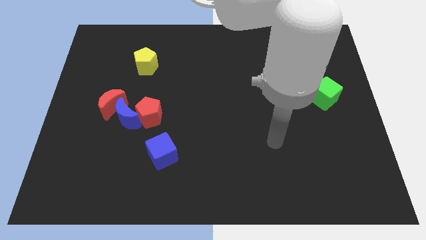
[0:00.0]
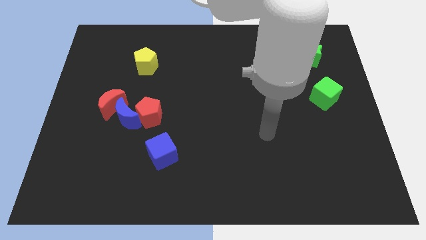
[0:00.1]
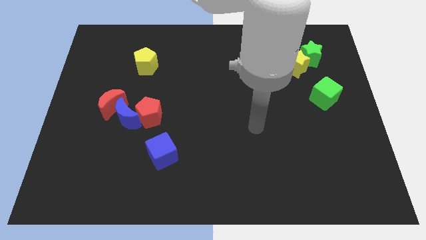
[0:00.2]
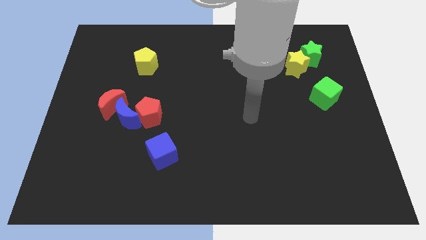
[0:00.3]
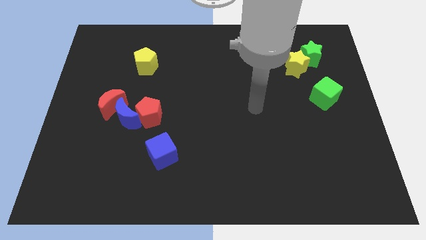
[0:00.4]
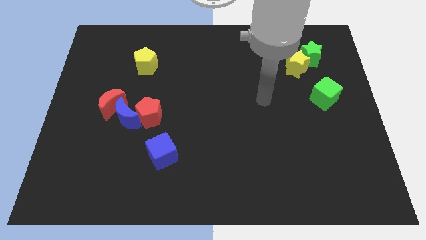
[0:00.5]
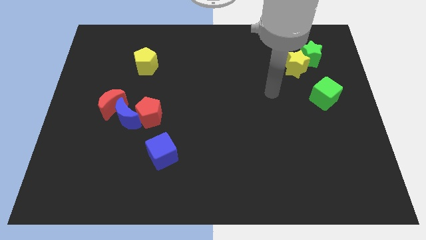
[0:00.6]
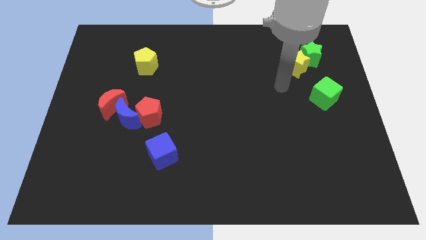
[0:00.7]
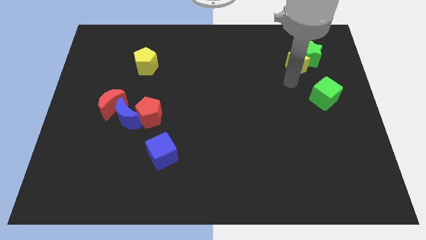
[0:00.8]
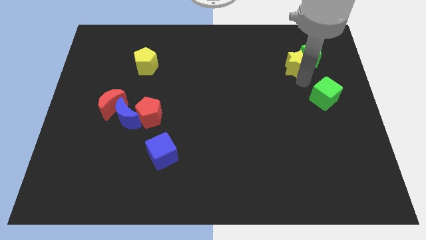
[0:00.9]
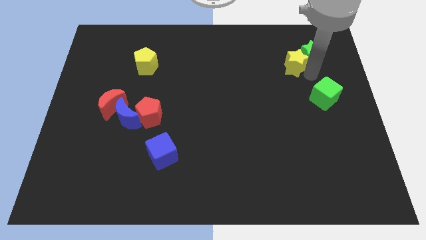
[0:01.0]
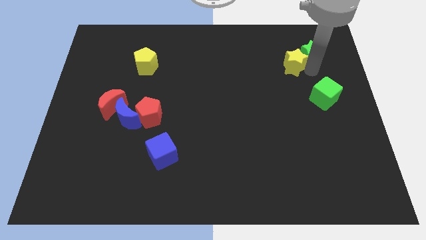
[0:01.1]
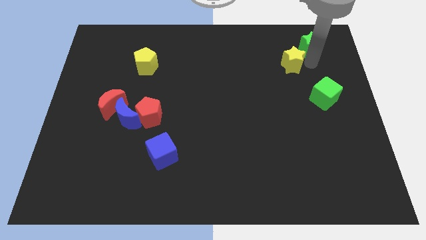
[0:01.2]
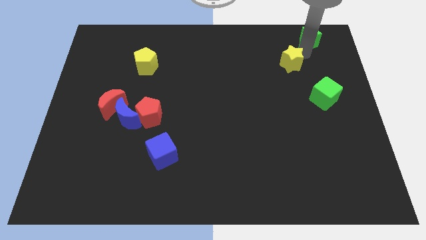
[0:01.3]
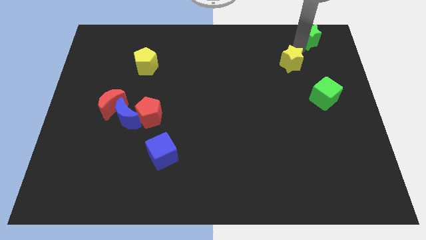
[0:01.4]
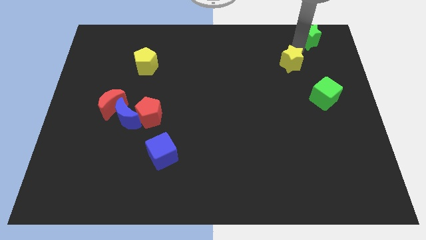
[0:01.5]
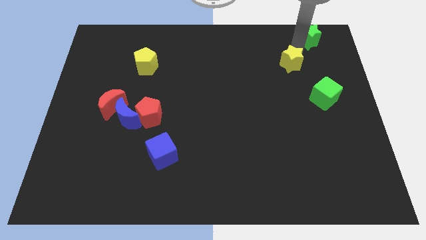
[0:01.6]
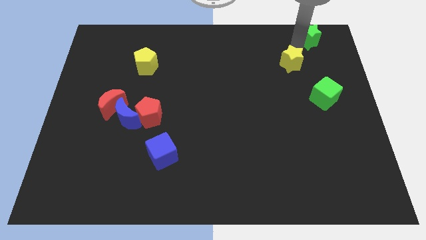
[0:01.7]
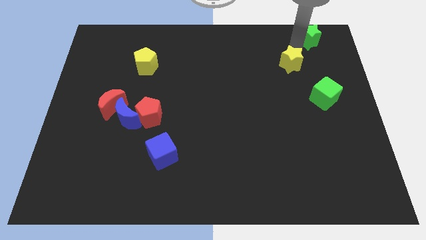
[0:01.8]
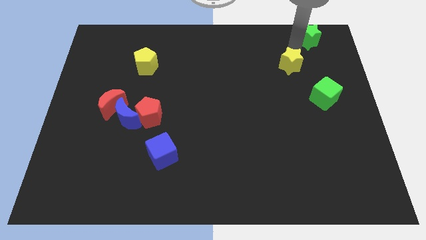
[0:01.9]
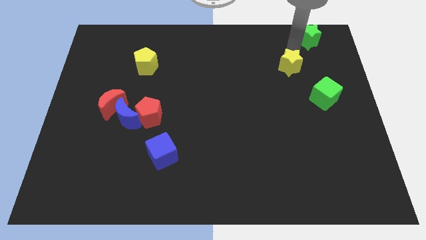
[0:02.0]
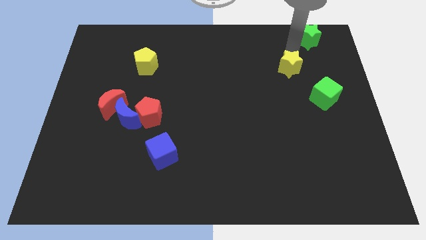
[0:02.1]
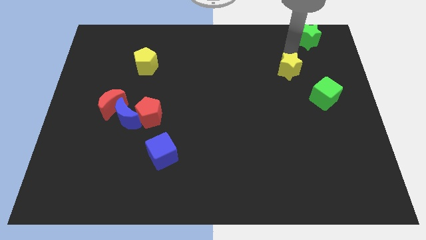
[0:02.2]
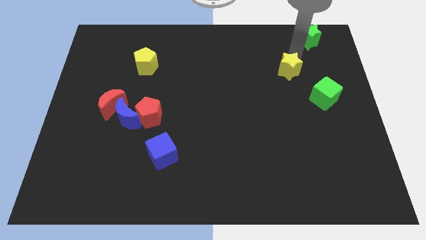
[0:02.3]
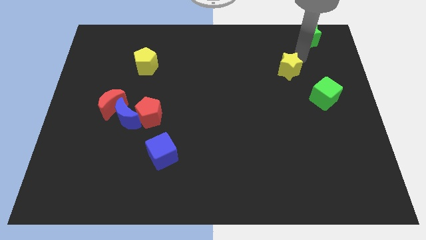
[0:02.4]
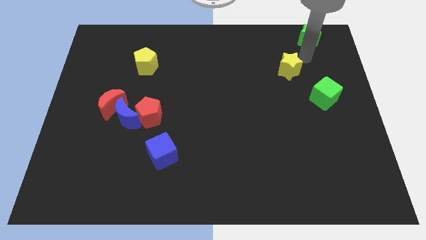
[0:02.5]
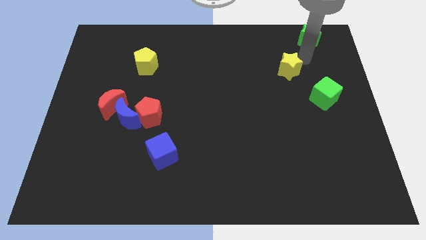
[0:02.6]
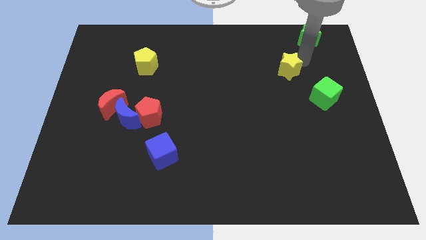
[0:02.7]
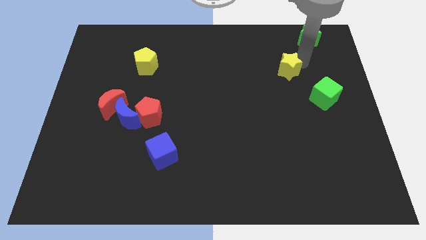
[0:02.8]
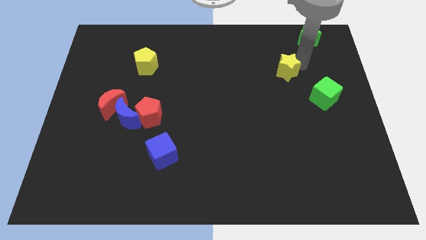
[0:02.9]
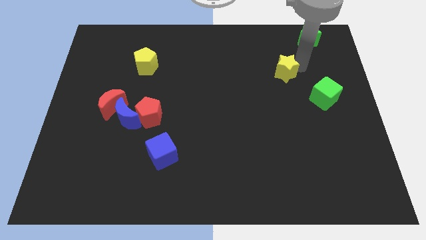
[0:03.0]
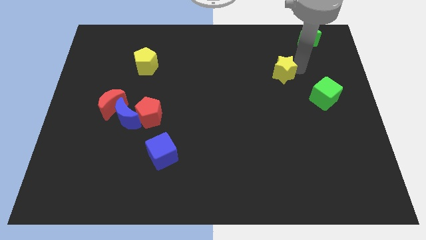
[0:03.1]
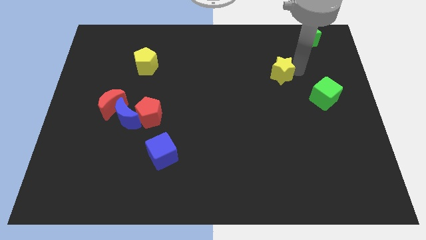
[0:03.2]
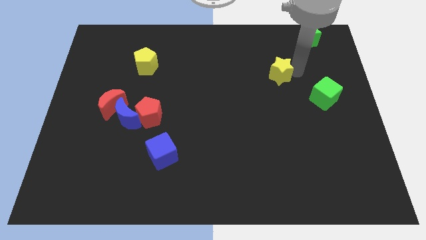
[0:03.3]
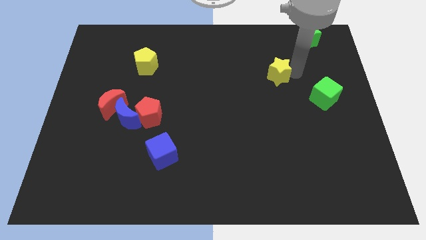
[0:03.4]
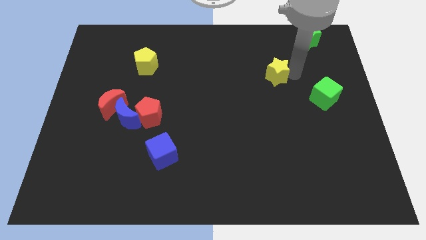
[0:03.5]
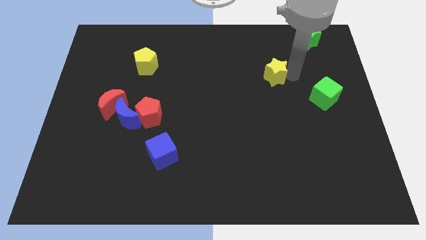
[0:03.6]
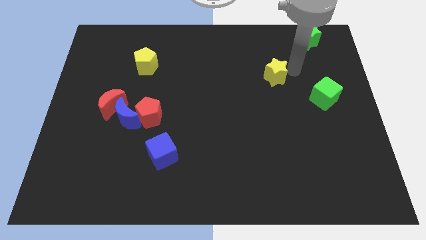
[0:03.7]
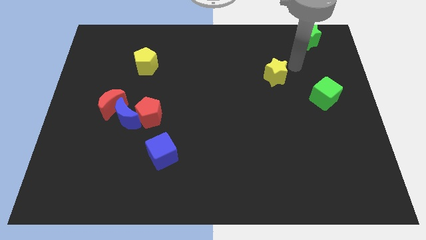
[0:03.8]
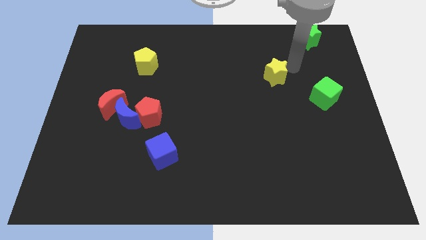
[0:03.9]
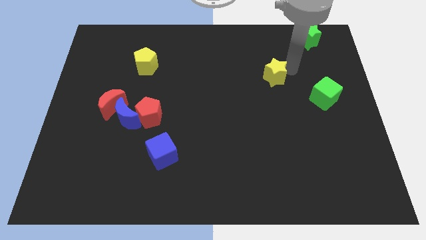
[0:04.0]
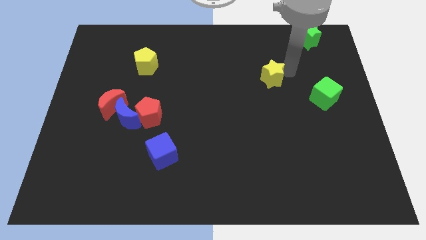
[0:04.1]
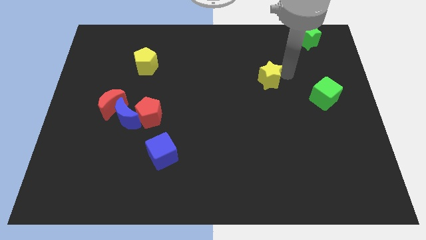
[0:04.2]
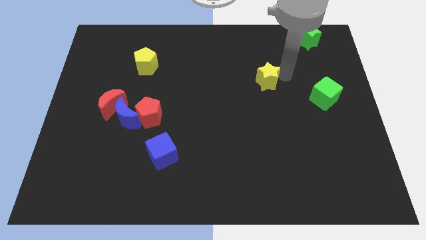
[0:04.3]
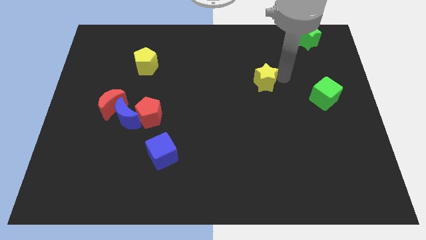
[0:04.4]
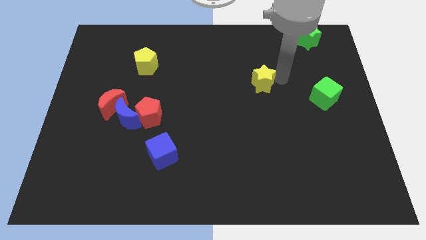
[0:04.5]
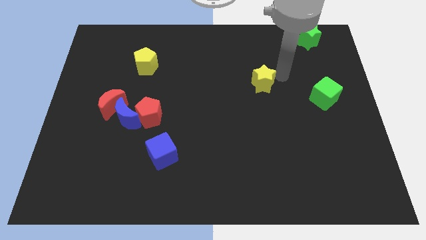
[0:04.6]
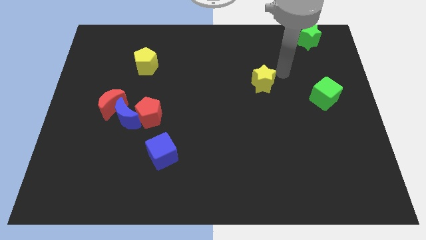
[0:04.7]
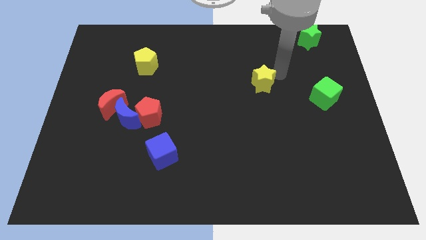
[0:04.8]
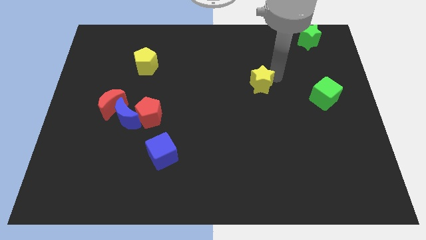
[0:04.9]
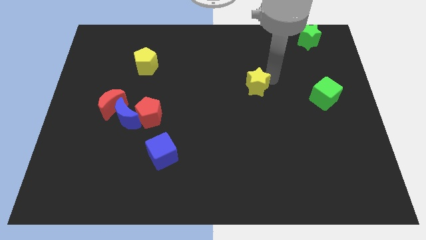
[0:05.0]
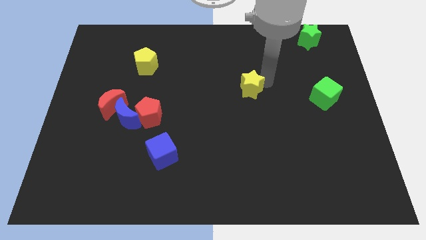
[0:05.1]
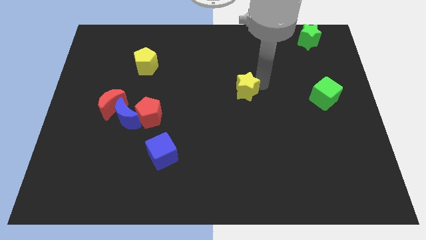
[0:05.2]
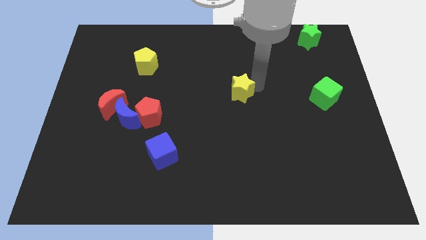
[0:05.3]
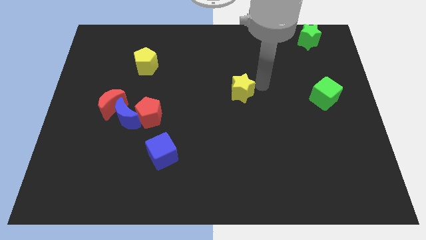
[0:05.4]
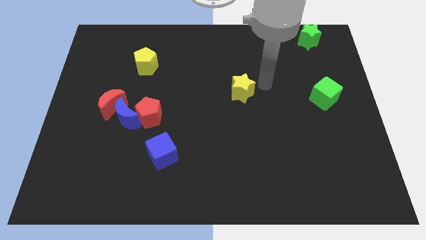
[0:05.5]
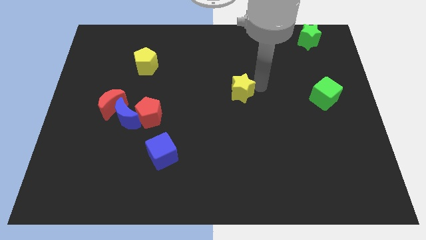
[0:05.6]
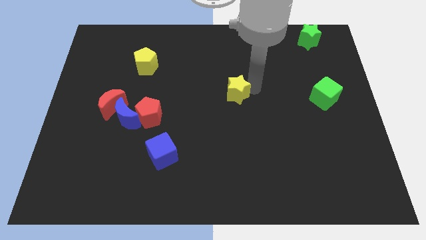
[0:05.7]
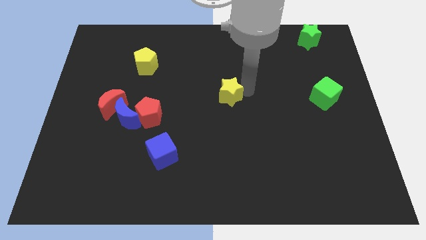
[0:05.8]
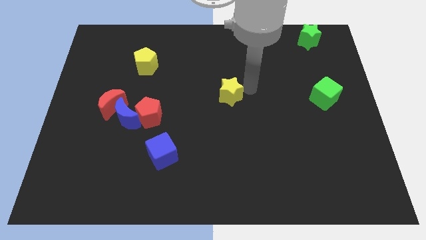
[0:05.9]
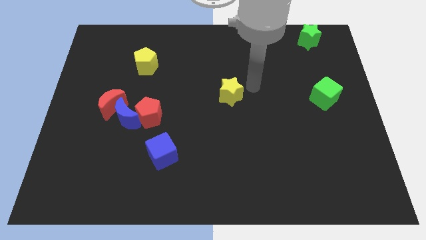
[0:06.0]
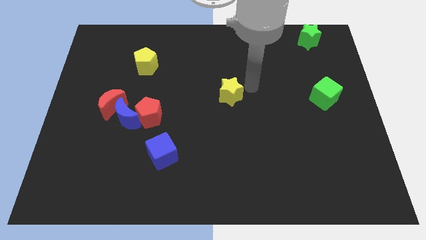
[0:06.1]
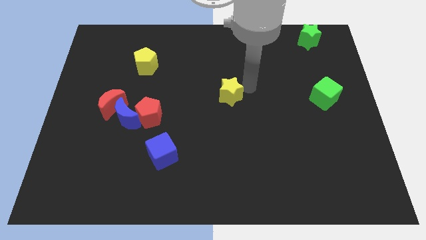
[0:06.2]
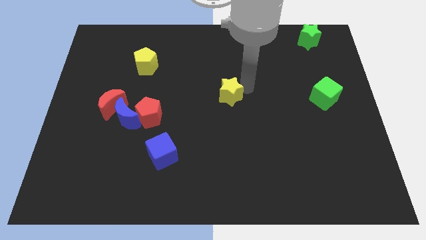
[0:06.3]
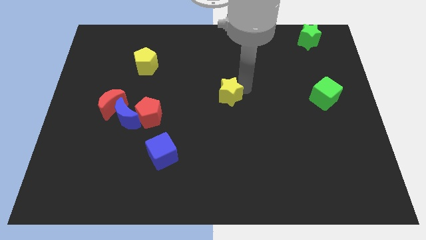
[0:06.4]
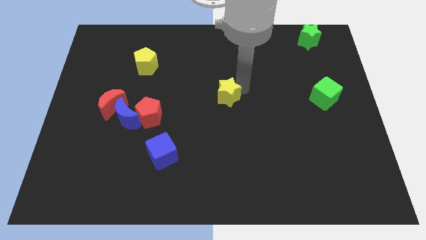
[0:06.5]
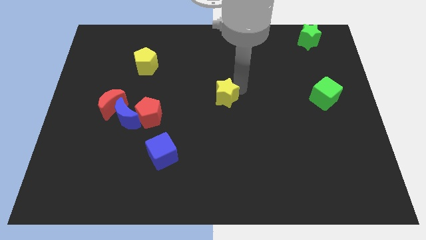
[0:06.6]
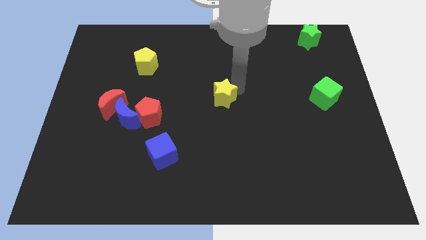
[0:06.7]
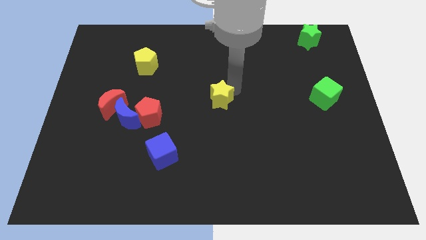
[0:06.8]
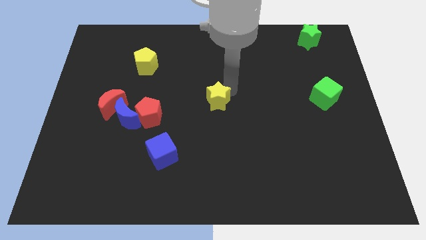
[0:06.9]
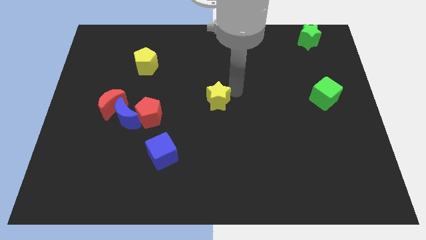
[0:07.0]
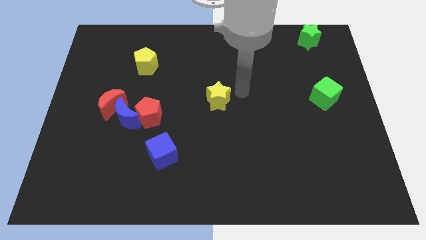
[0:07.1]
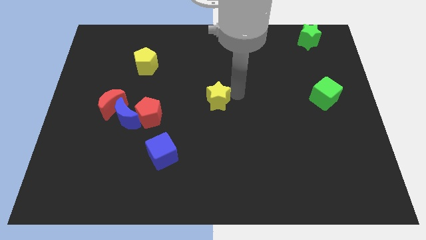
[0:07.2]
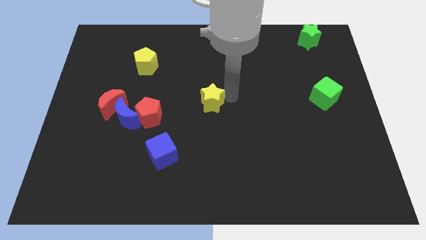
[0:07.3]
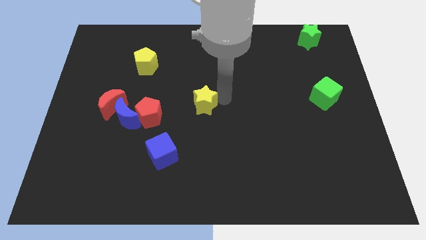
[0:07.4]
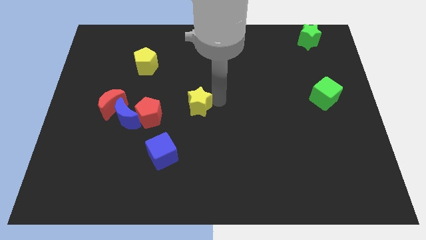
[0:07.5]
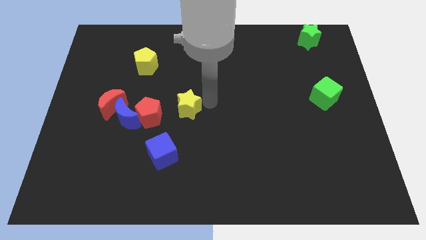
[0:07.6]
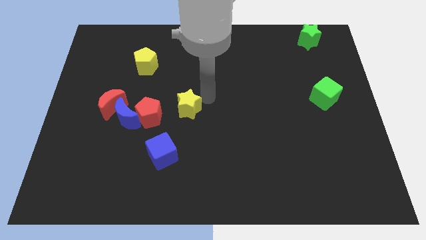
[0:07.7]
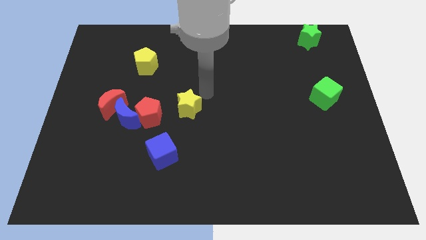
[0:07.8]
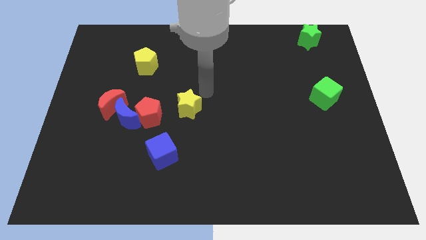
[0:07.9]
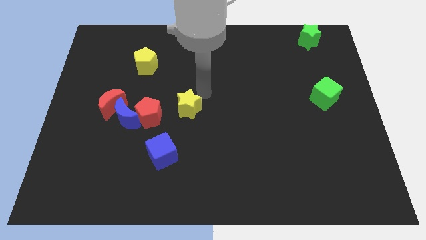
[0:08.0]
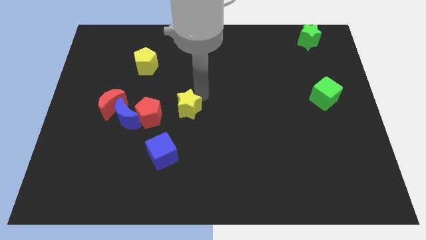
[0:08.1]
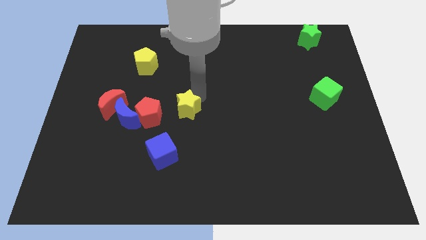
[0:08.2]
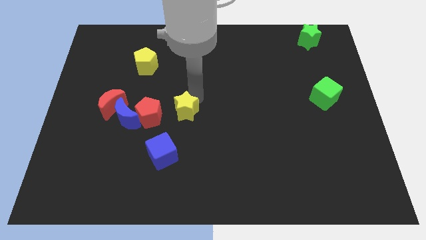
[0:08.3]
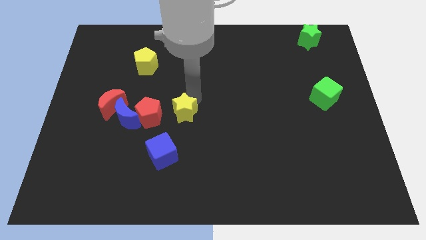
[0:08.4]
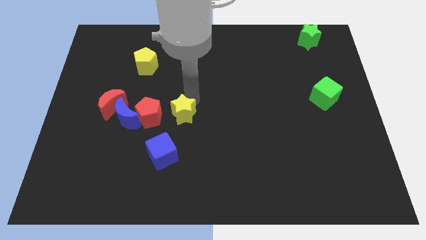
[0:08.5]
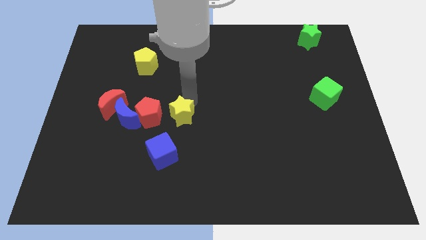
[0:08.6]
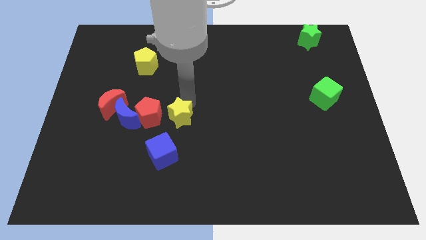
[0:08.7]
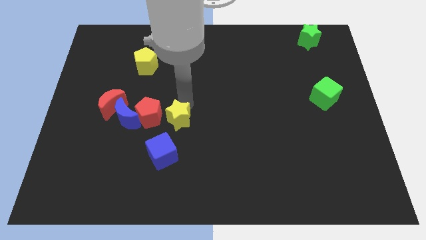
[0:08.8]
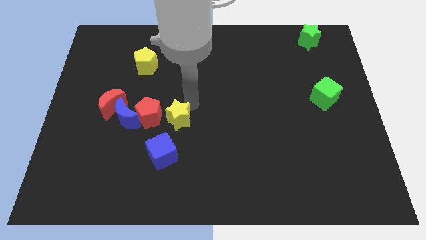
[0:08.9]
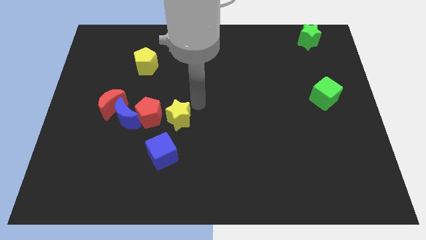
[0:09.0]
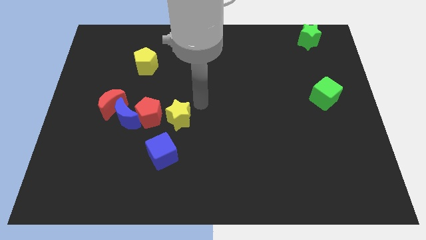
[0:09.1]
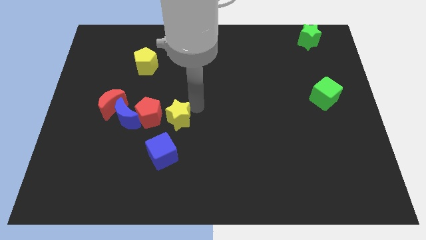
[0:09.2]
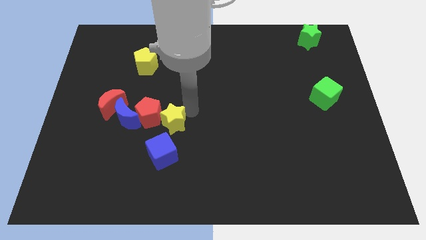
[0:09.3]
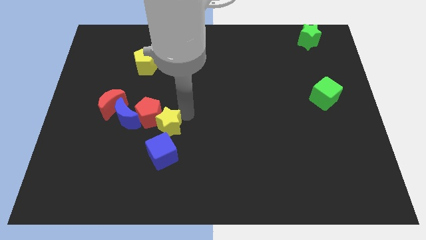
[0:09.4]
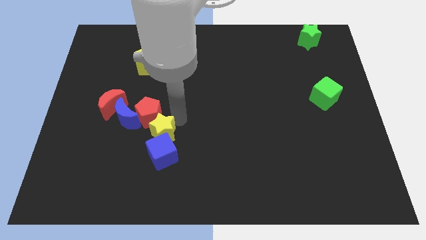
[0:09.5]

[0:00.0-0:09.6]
put the yellow star below the red pentagon
